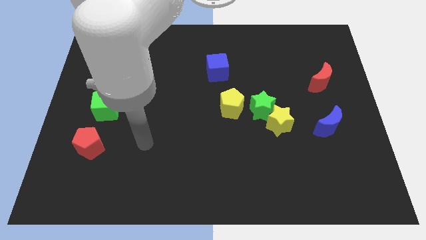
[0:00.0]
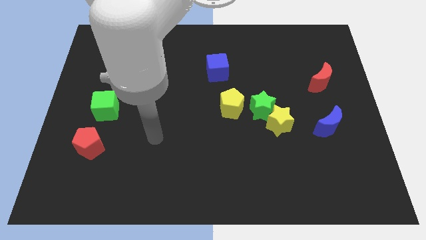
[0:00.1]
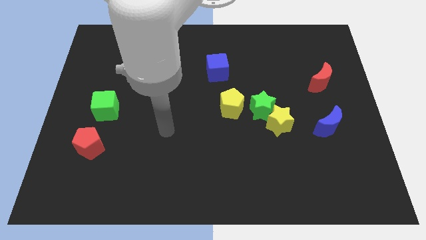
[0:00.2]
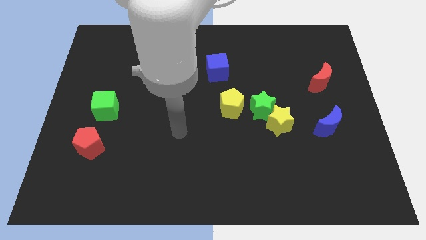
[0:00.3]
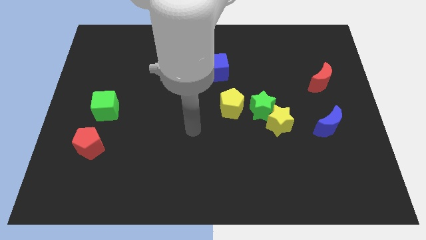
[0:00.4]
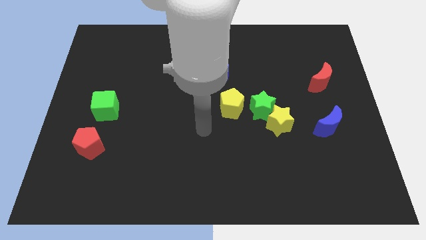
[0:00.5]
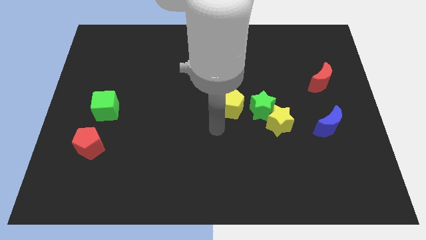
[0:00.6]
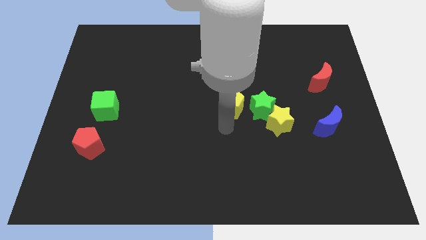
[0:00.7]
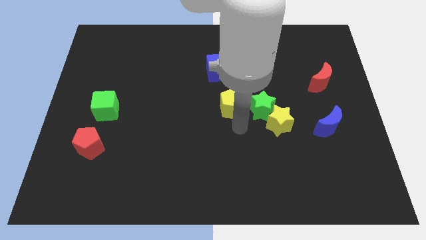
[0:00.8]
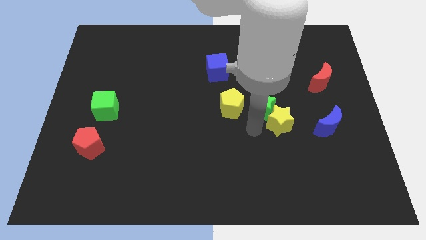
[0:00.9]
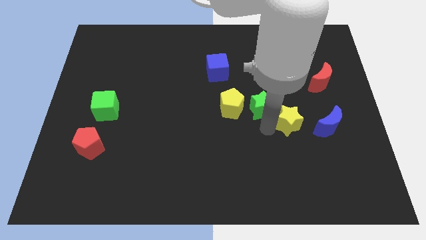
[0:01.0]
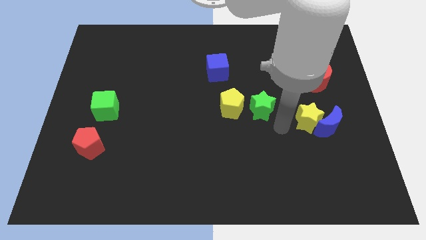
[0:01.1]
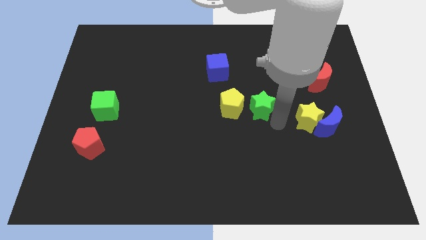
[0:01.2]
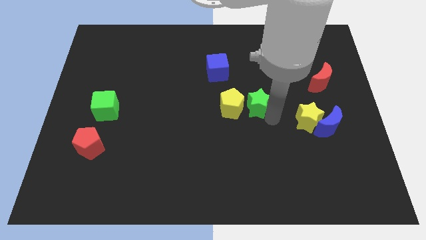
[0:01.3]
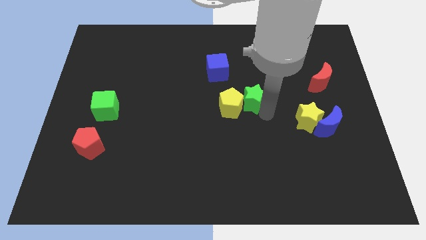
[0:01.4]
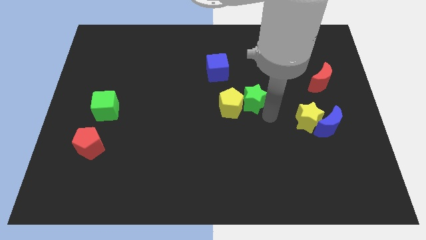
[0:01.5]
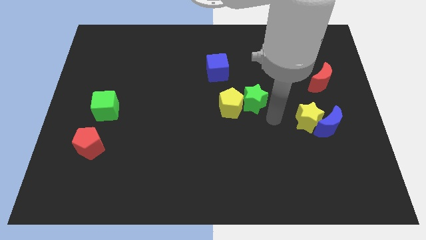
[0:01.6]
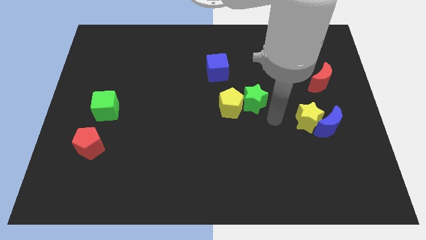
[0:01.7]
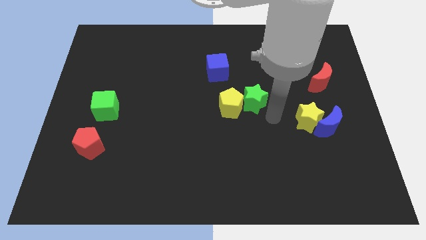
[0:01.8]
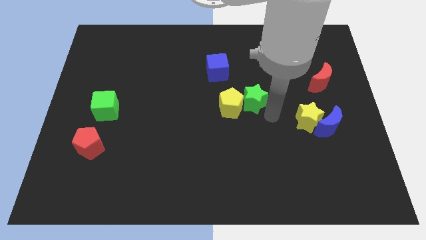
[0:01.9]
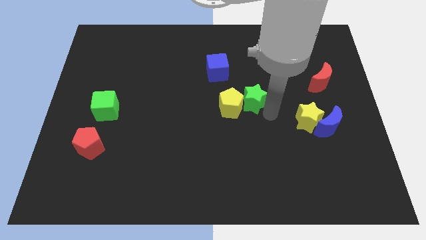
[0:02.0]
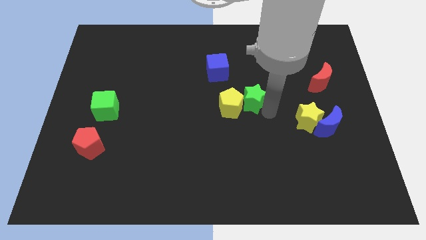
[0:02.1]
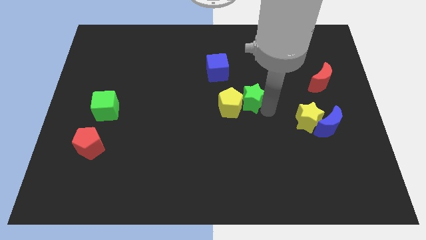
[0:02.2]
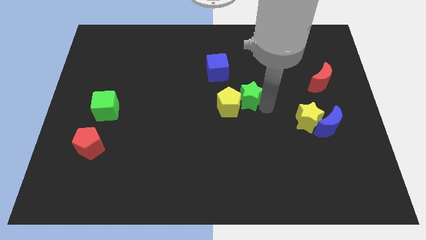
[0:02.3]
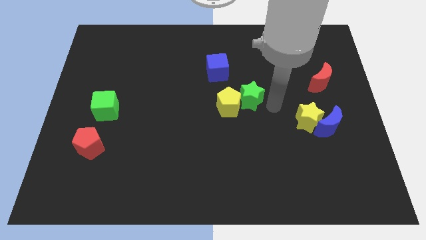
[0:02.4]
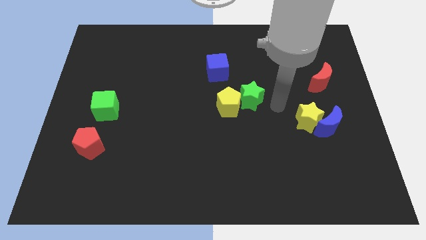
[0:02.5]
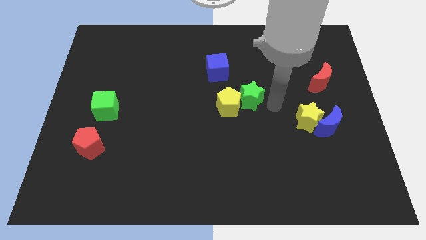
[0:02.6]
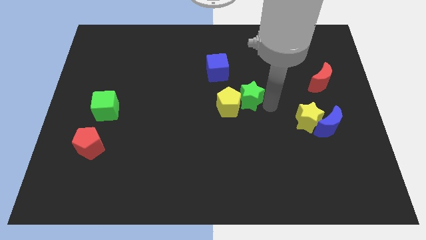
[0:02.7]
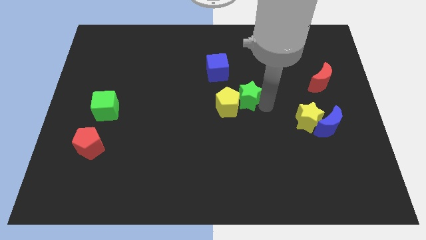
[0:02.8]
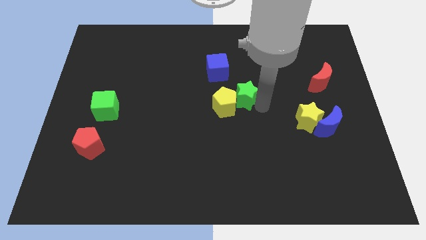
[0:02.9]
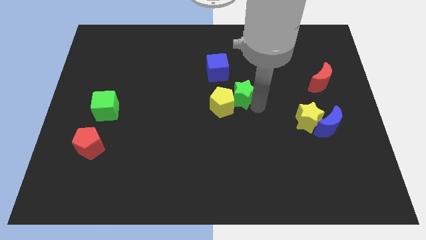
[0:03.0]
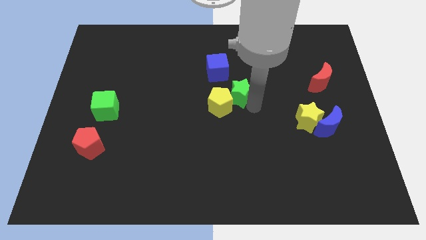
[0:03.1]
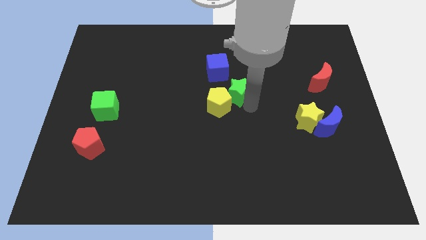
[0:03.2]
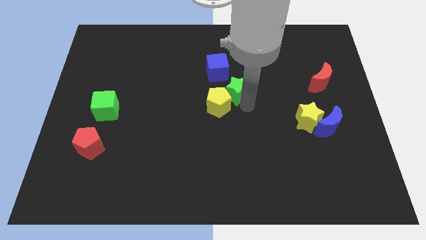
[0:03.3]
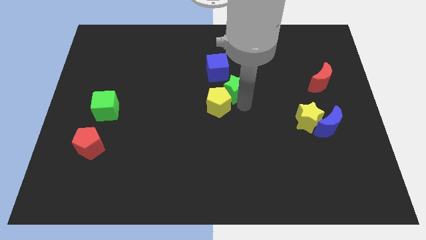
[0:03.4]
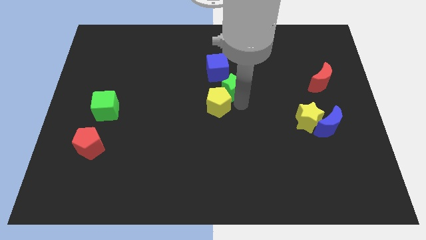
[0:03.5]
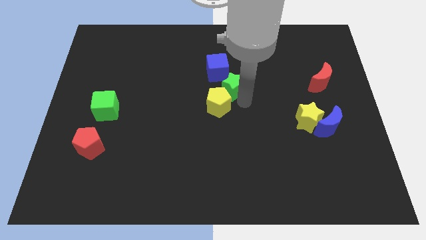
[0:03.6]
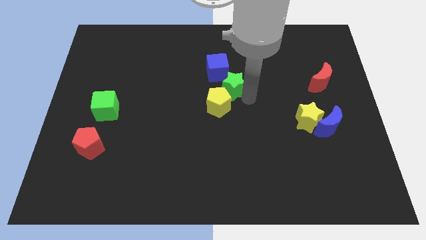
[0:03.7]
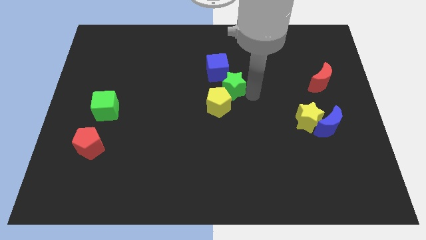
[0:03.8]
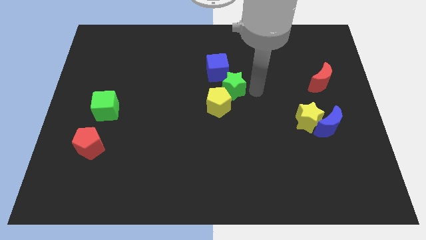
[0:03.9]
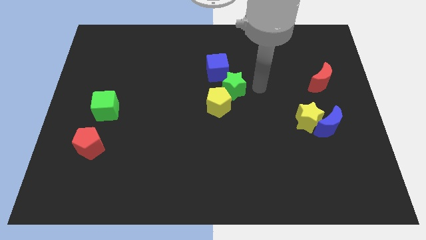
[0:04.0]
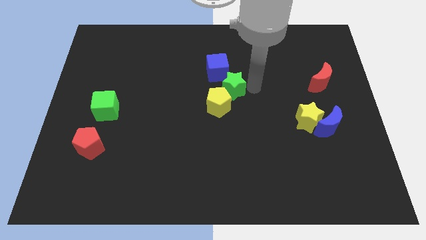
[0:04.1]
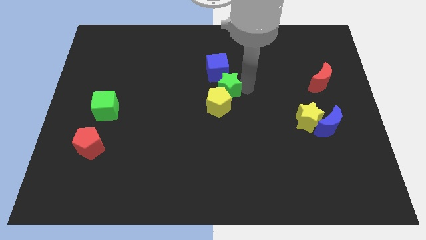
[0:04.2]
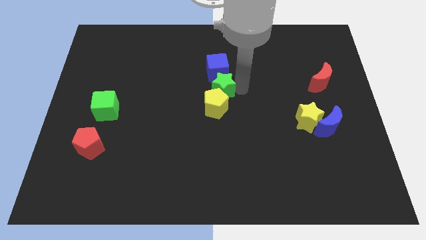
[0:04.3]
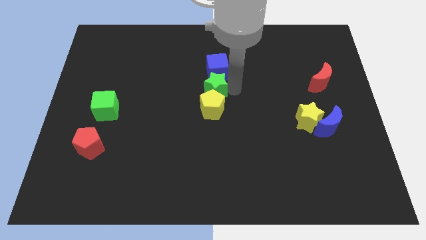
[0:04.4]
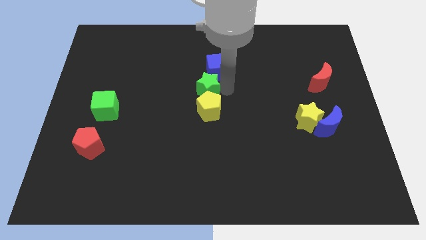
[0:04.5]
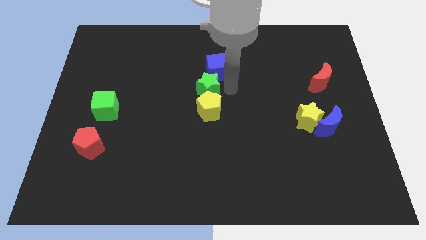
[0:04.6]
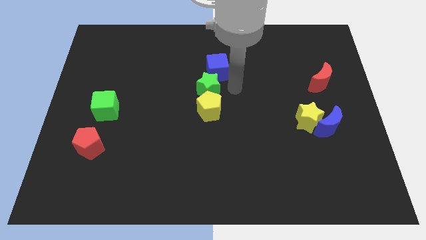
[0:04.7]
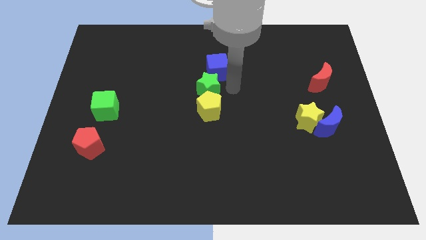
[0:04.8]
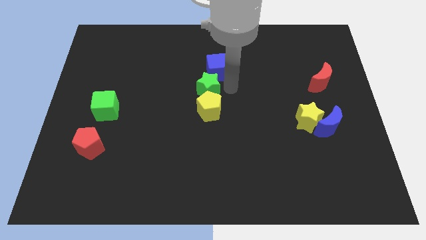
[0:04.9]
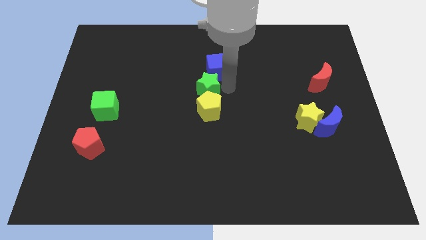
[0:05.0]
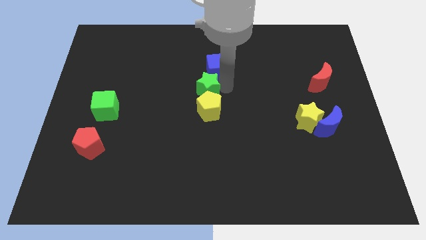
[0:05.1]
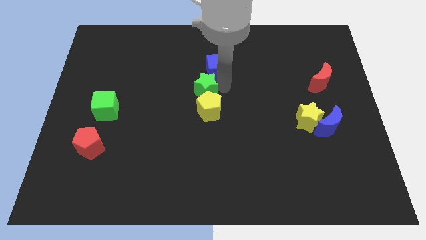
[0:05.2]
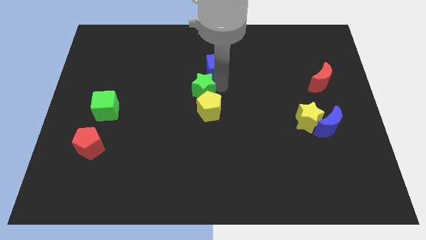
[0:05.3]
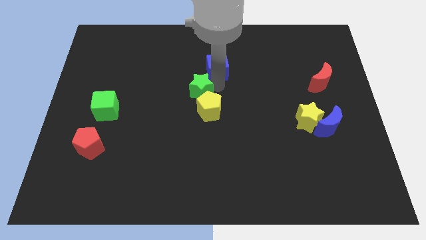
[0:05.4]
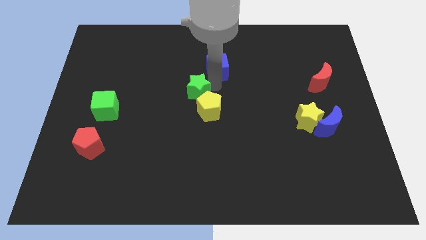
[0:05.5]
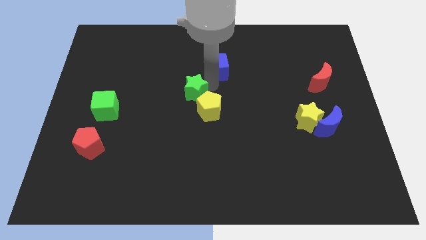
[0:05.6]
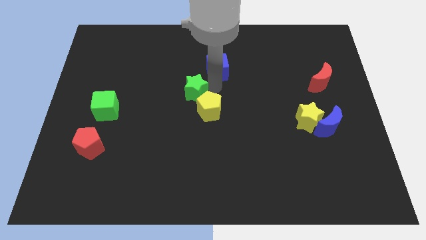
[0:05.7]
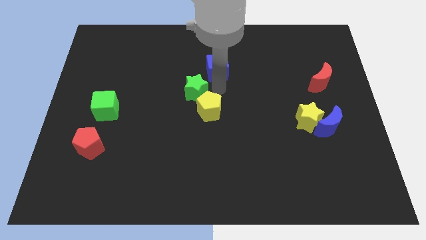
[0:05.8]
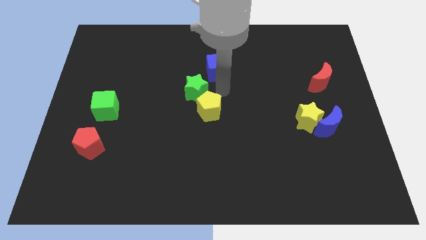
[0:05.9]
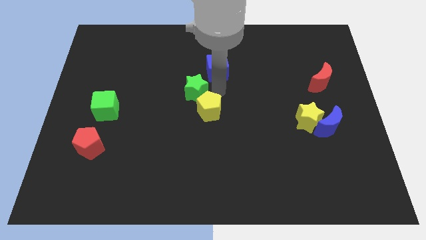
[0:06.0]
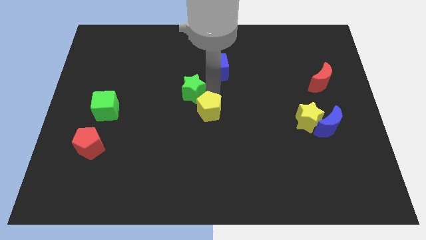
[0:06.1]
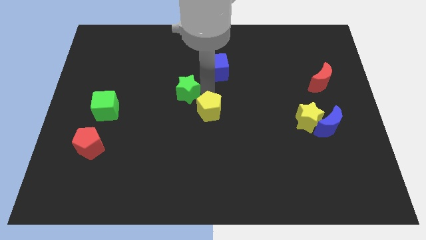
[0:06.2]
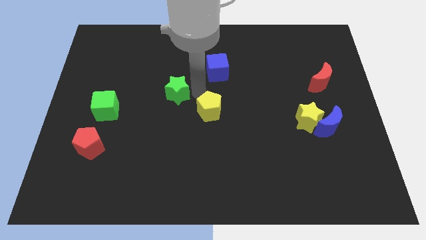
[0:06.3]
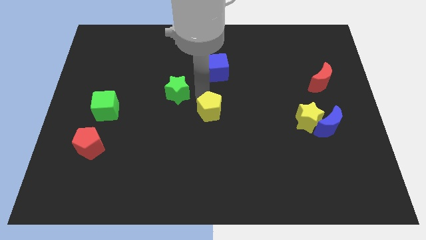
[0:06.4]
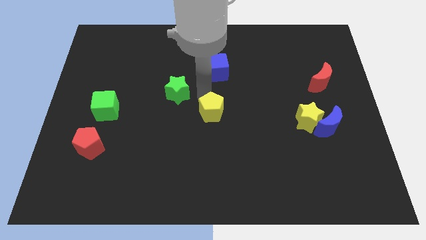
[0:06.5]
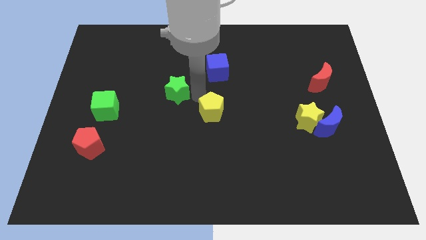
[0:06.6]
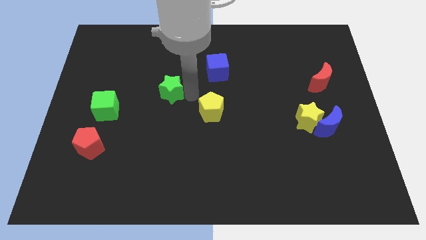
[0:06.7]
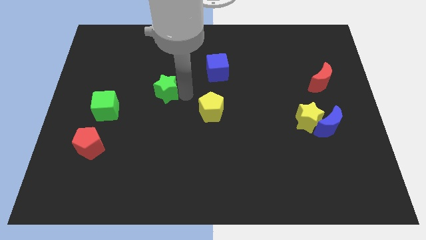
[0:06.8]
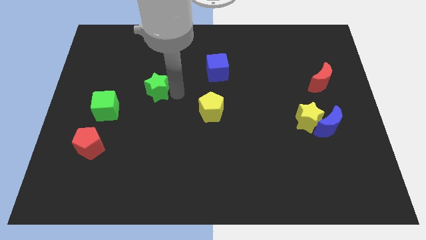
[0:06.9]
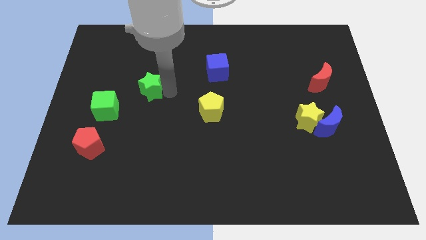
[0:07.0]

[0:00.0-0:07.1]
slide the green star to the top right side of the green cube

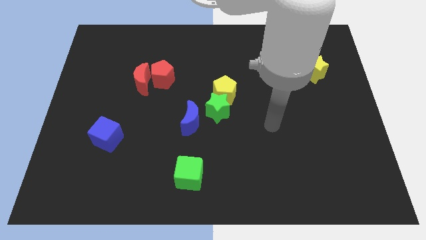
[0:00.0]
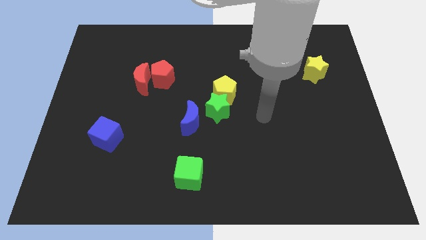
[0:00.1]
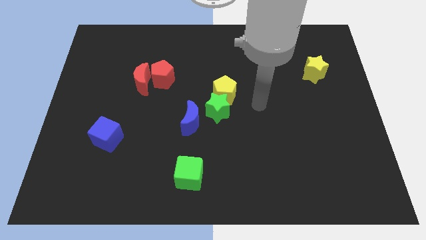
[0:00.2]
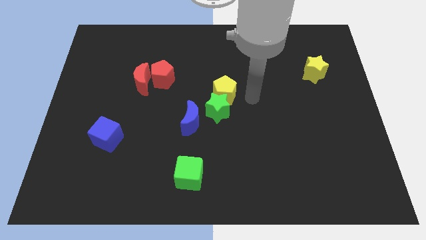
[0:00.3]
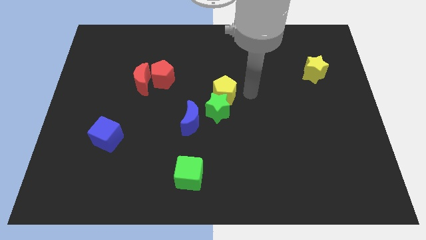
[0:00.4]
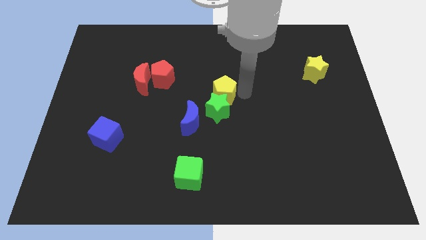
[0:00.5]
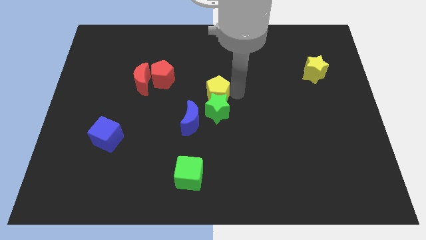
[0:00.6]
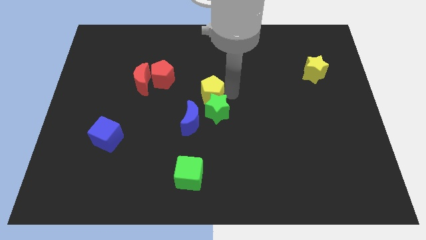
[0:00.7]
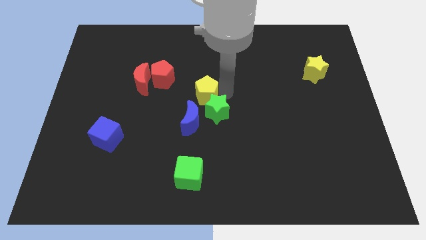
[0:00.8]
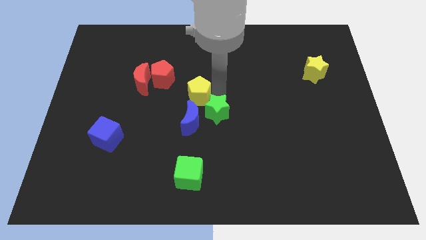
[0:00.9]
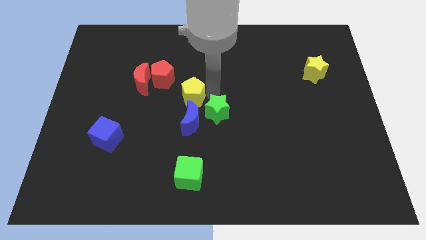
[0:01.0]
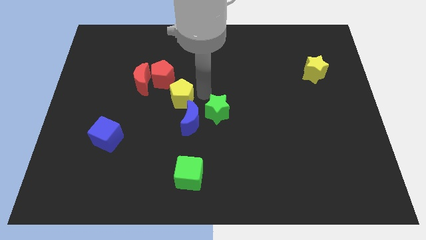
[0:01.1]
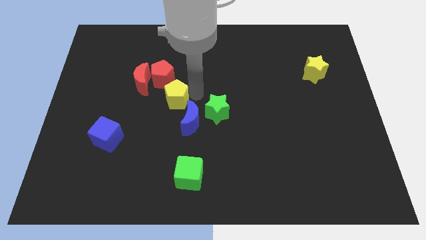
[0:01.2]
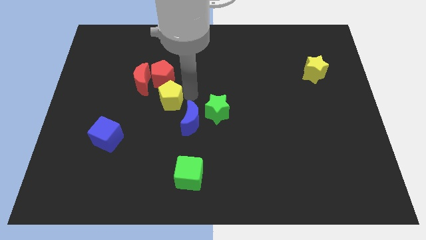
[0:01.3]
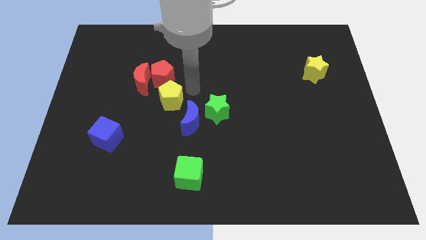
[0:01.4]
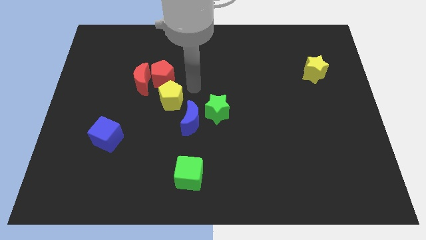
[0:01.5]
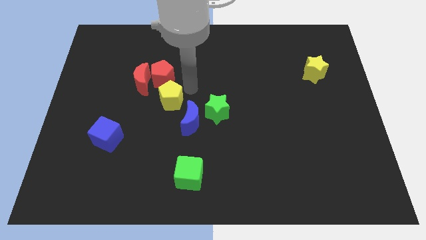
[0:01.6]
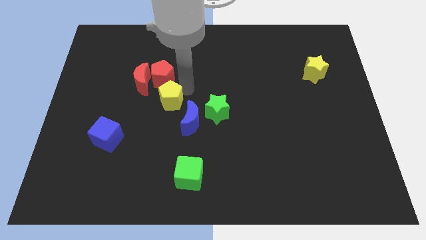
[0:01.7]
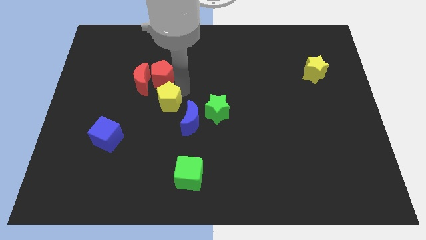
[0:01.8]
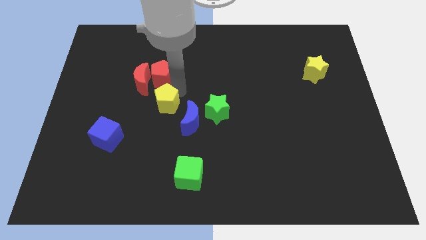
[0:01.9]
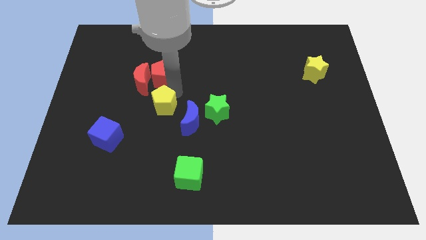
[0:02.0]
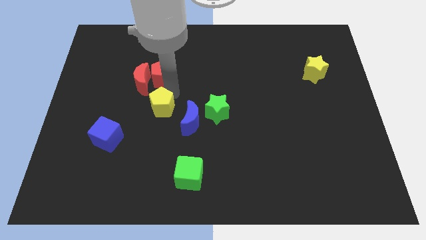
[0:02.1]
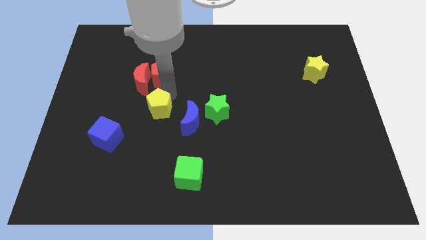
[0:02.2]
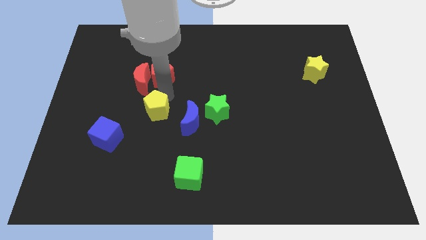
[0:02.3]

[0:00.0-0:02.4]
push the yellow pentagon diagonally up and to the right of the blue cube
